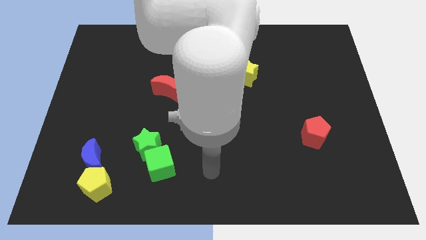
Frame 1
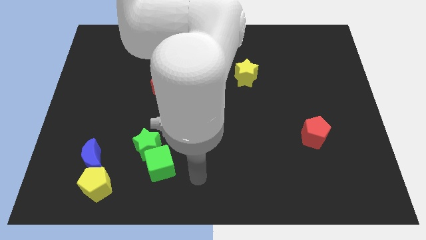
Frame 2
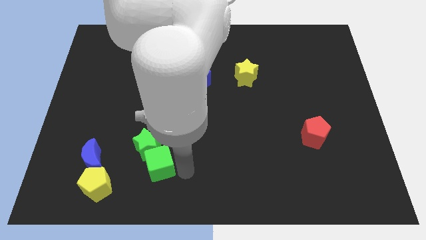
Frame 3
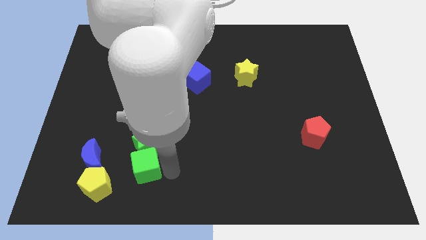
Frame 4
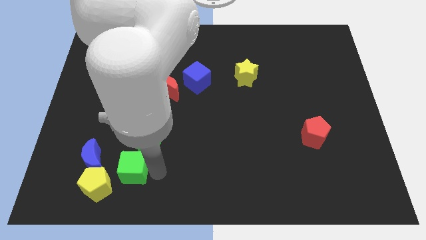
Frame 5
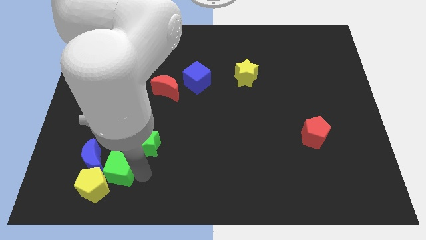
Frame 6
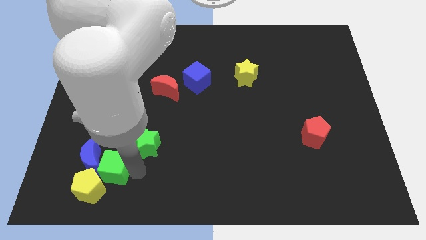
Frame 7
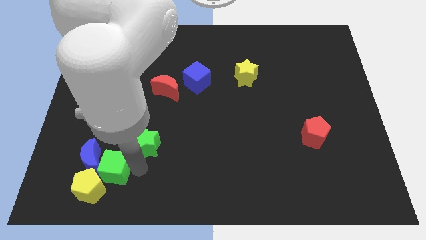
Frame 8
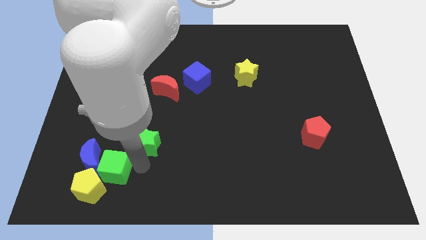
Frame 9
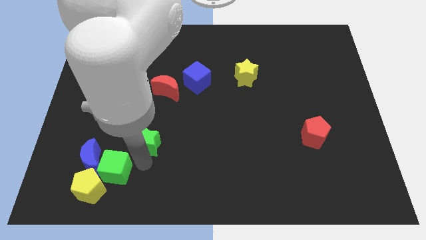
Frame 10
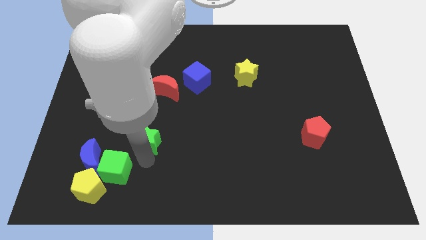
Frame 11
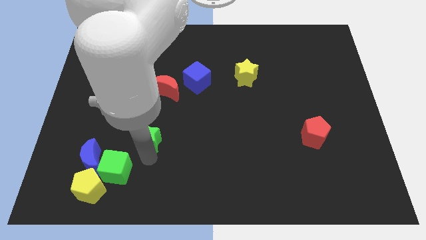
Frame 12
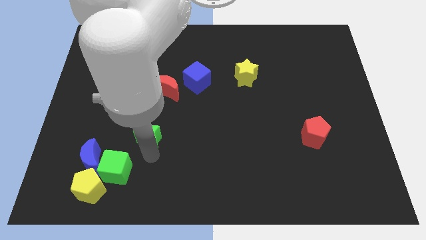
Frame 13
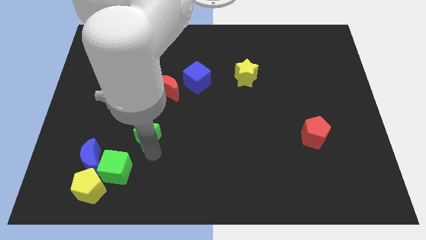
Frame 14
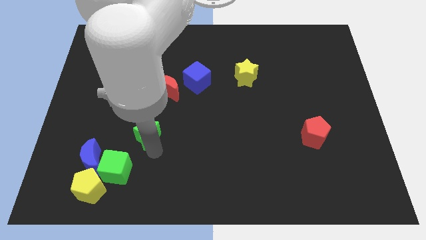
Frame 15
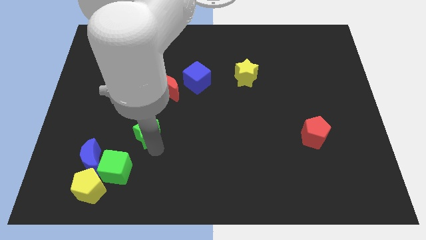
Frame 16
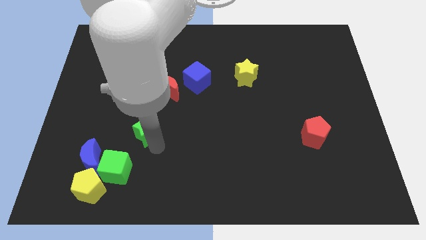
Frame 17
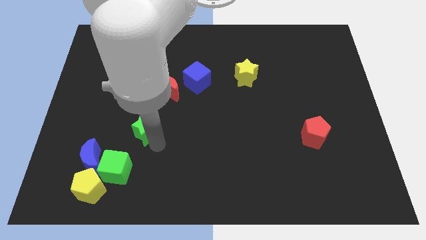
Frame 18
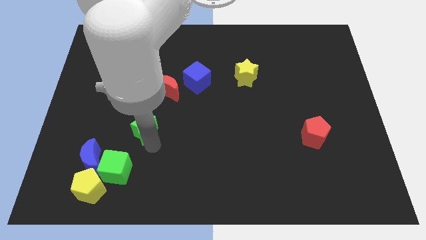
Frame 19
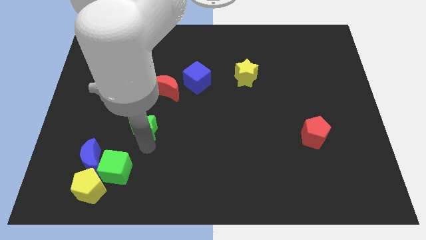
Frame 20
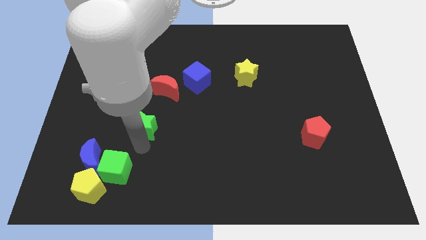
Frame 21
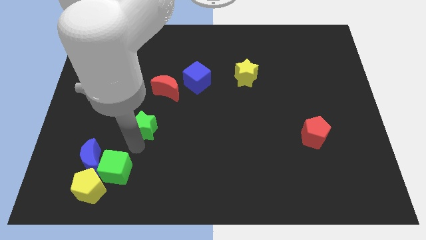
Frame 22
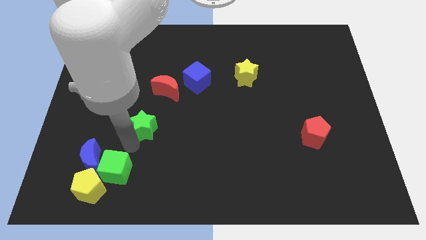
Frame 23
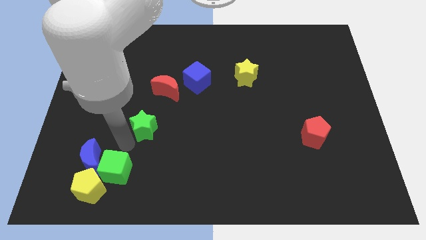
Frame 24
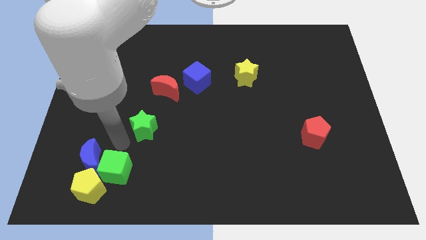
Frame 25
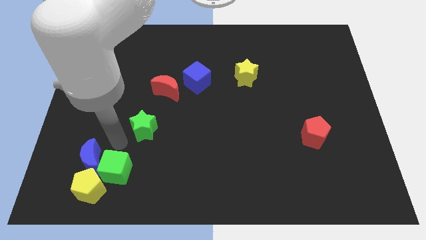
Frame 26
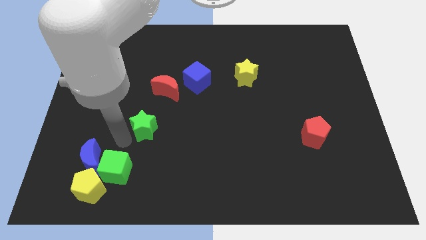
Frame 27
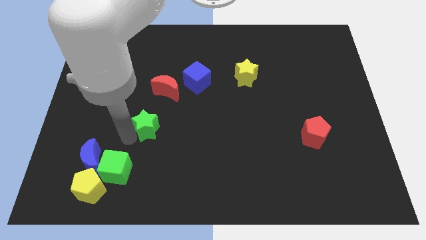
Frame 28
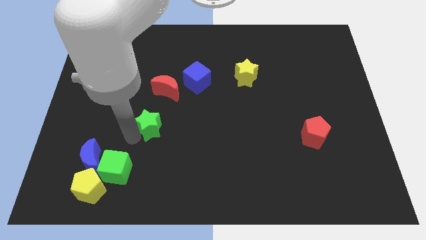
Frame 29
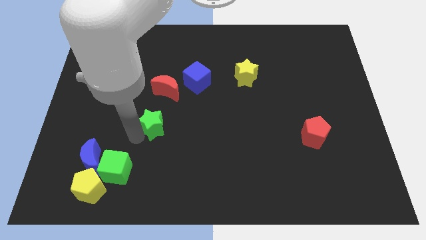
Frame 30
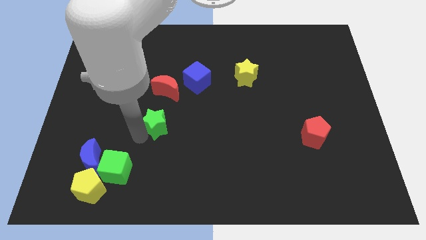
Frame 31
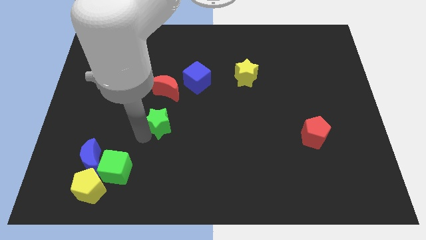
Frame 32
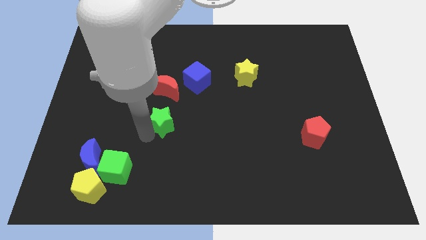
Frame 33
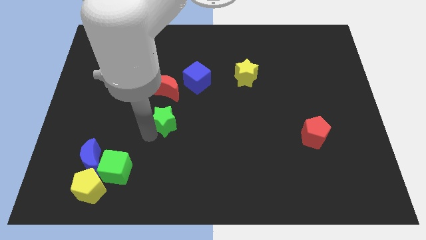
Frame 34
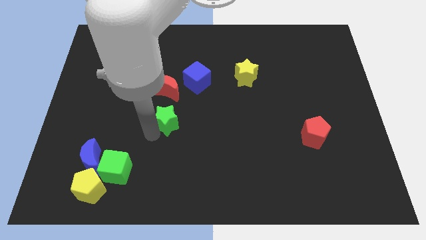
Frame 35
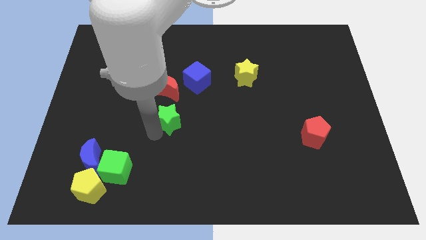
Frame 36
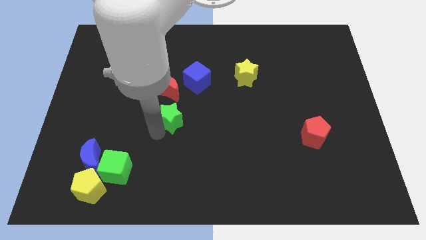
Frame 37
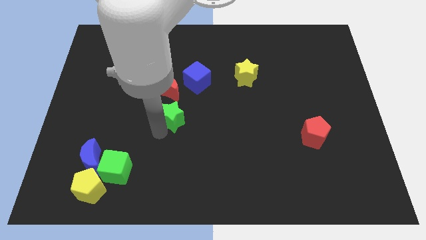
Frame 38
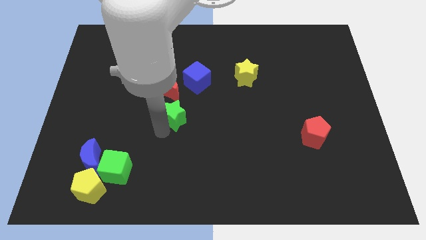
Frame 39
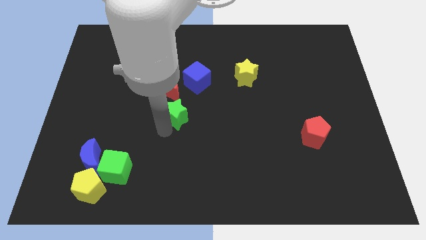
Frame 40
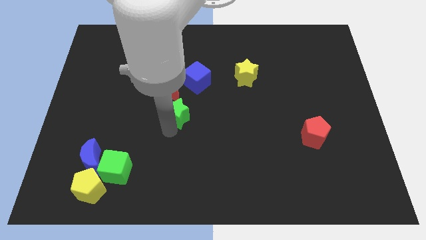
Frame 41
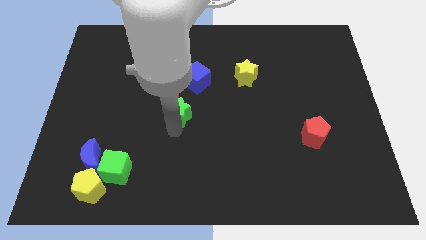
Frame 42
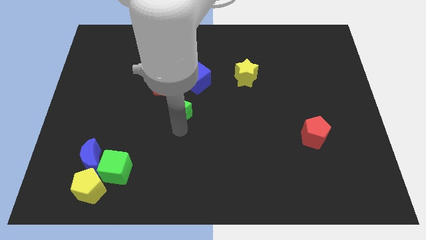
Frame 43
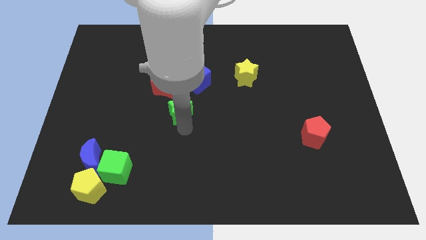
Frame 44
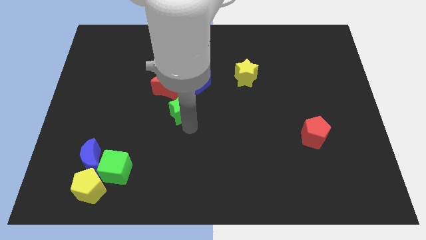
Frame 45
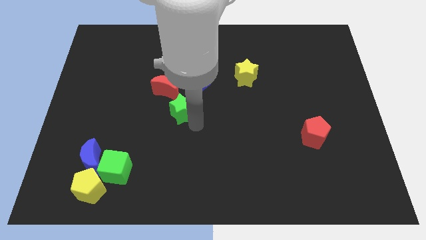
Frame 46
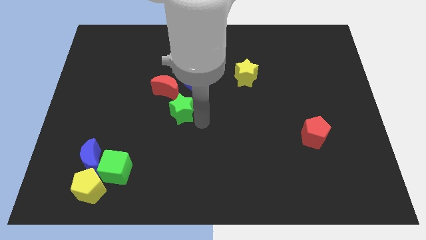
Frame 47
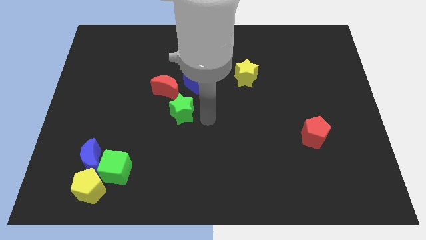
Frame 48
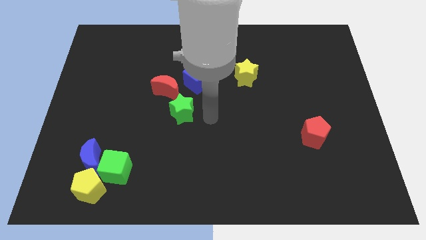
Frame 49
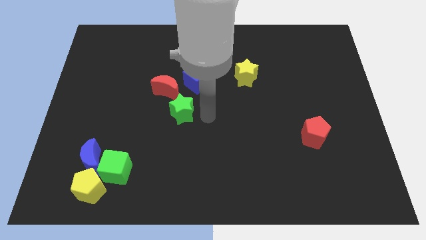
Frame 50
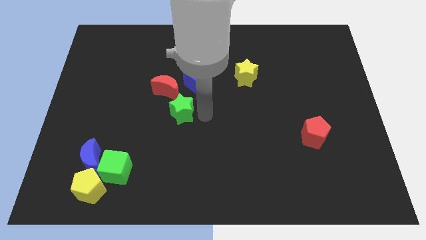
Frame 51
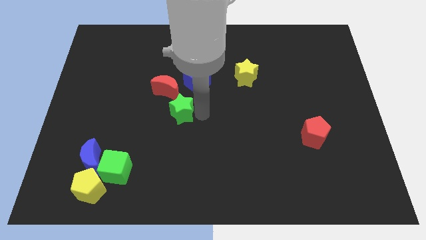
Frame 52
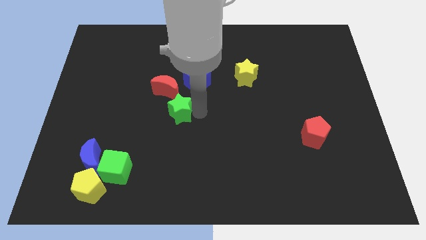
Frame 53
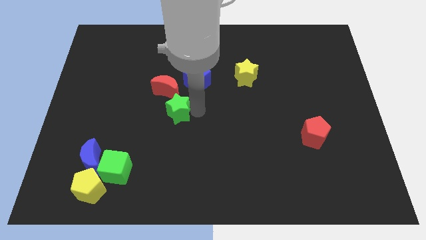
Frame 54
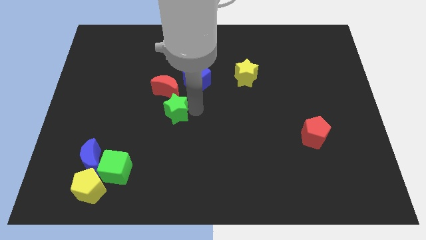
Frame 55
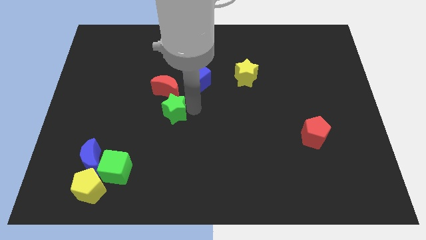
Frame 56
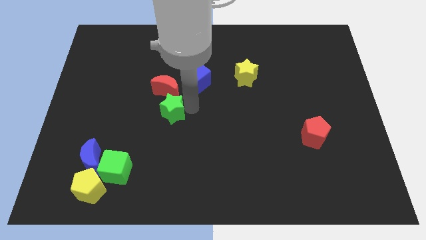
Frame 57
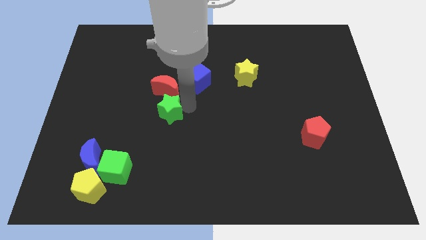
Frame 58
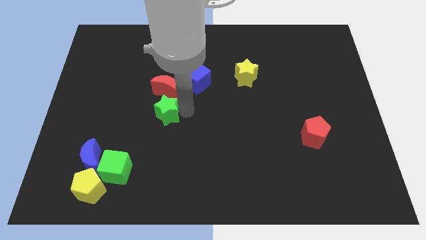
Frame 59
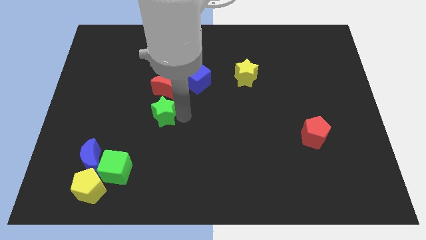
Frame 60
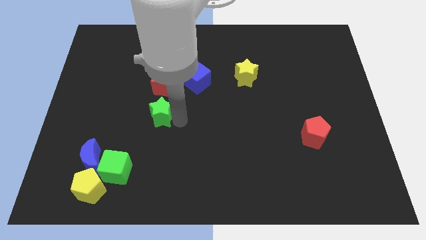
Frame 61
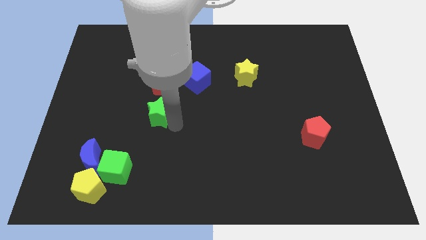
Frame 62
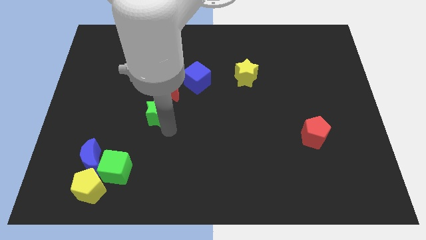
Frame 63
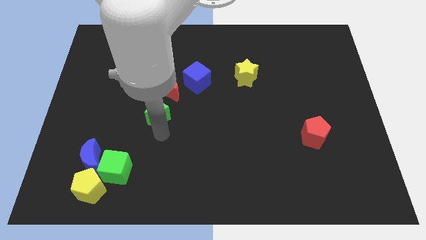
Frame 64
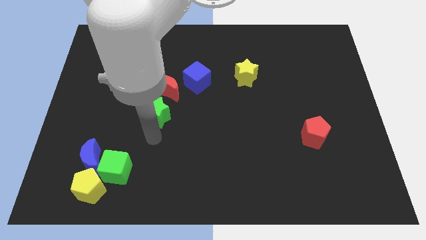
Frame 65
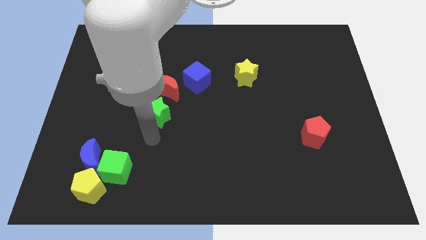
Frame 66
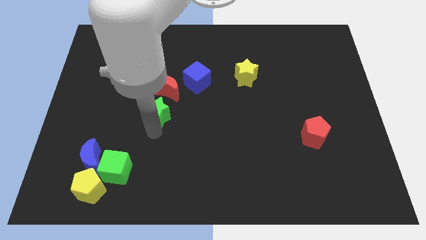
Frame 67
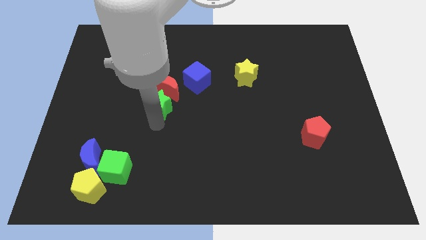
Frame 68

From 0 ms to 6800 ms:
move the green star towards the red moon

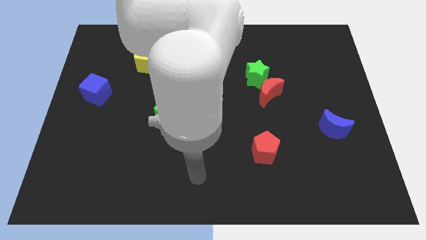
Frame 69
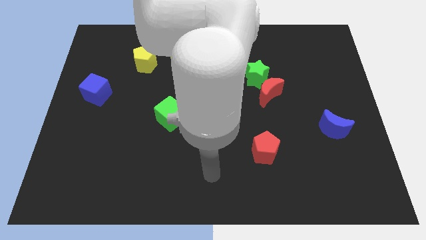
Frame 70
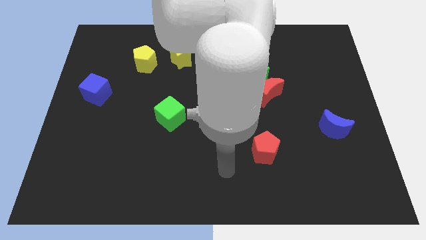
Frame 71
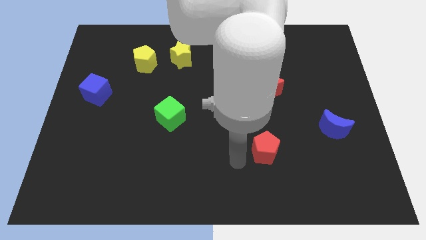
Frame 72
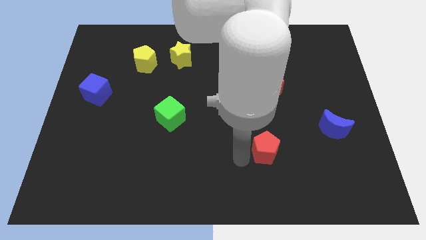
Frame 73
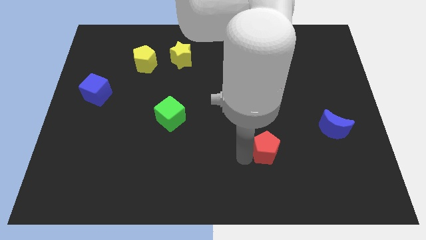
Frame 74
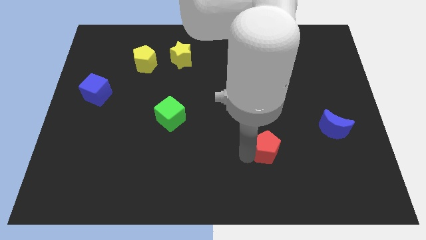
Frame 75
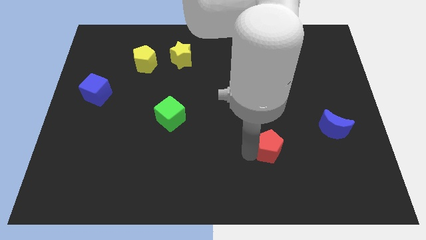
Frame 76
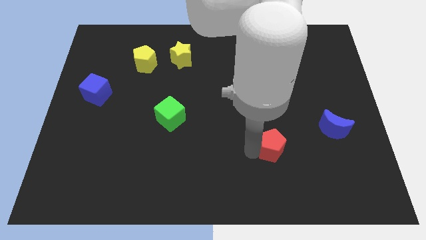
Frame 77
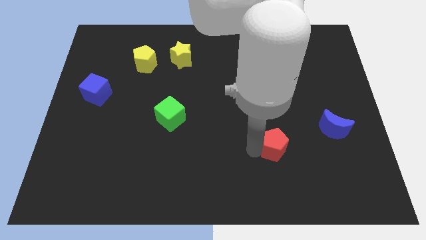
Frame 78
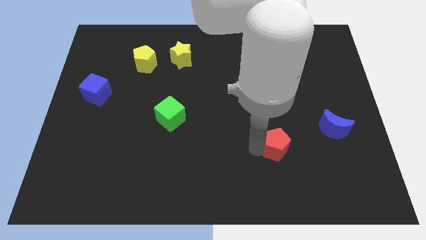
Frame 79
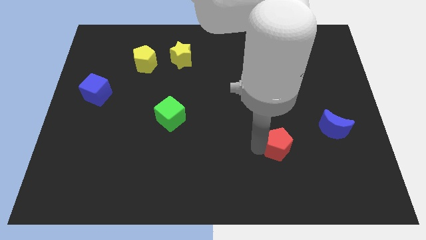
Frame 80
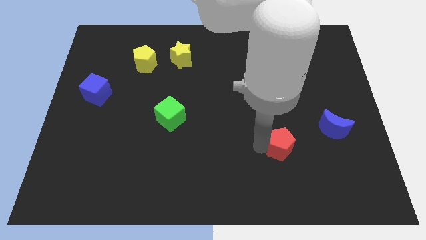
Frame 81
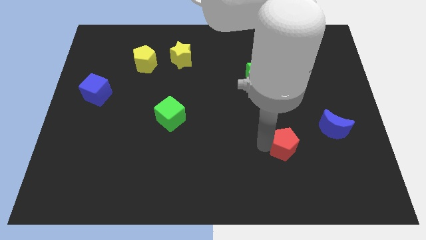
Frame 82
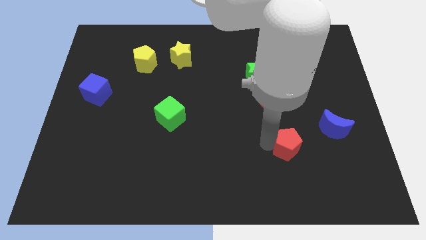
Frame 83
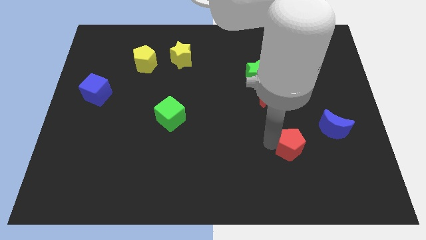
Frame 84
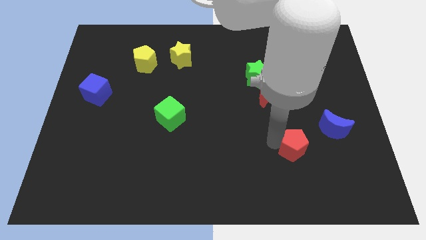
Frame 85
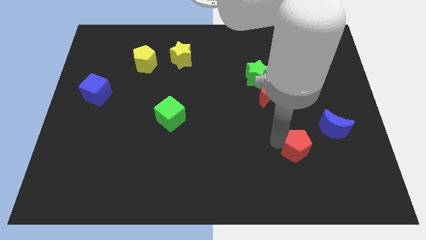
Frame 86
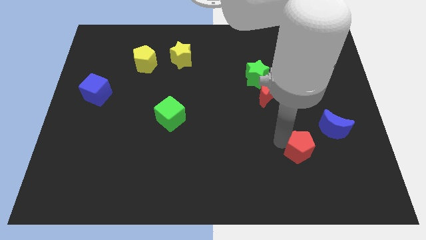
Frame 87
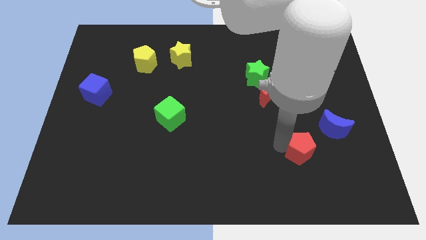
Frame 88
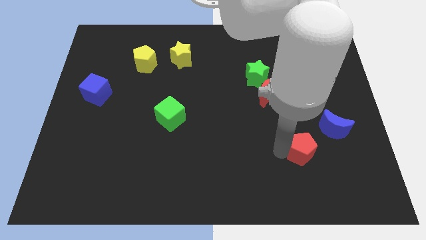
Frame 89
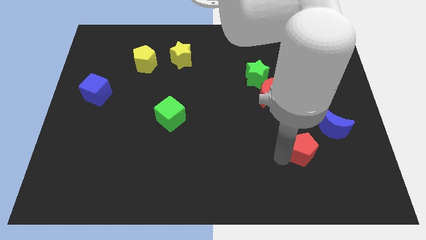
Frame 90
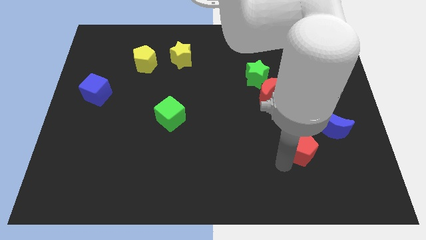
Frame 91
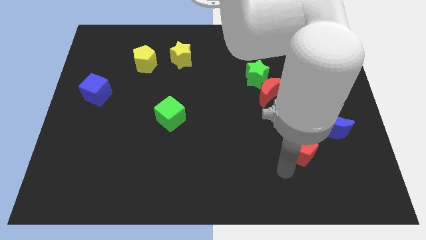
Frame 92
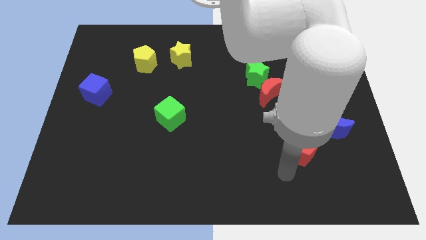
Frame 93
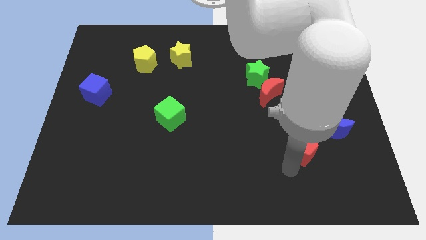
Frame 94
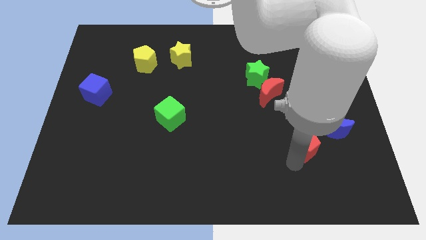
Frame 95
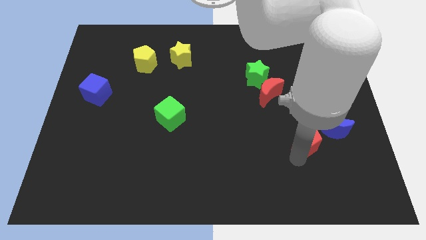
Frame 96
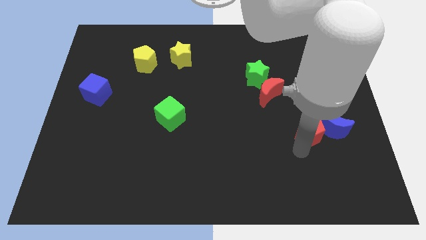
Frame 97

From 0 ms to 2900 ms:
push the red pentagon next to the blue moon
